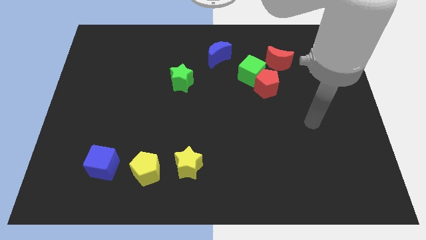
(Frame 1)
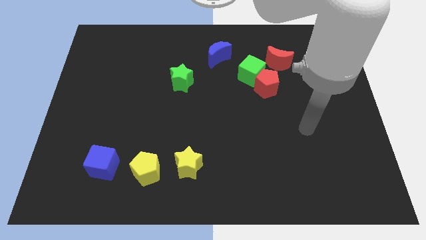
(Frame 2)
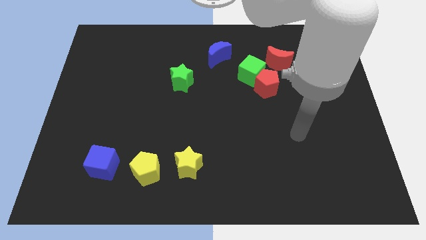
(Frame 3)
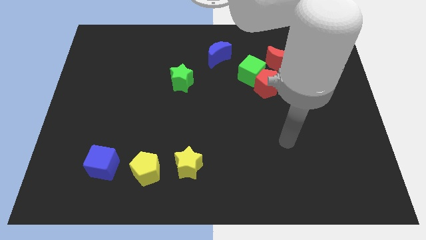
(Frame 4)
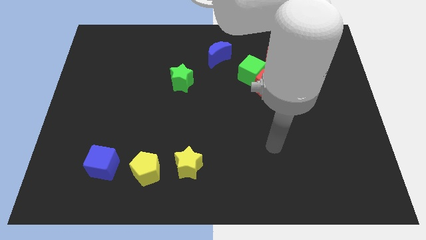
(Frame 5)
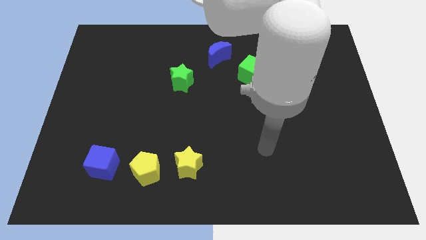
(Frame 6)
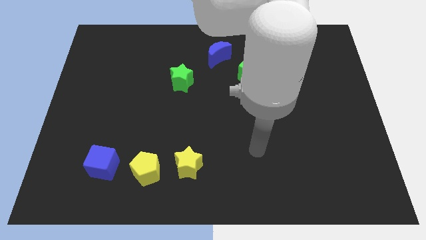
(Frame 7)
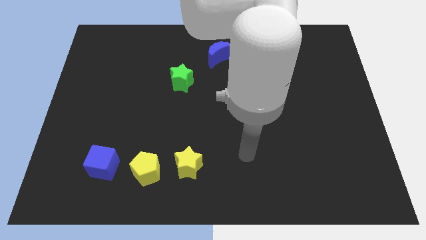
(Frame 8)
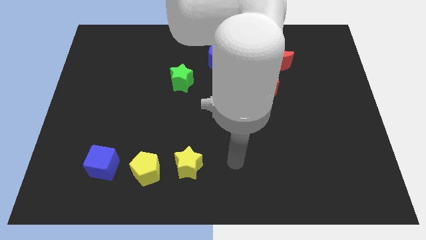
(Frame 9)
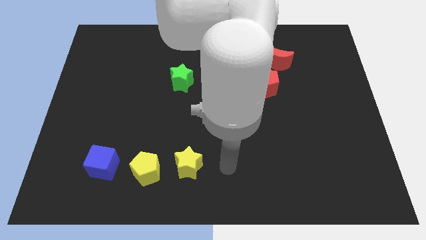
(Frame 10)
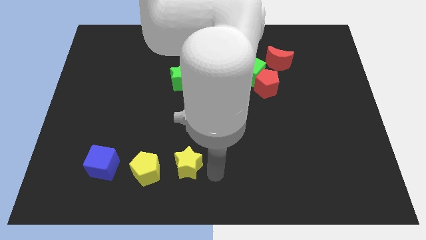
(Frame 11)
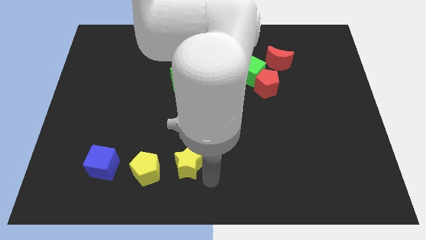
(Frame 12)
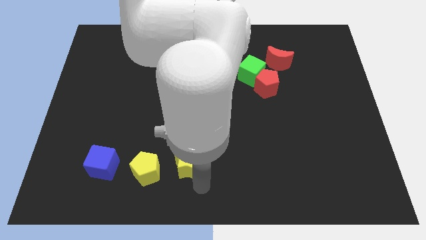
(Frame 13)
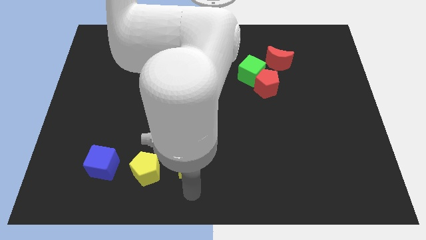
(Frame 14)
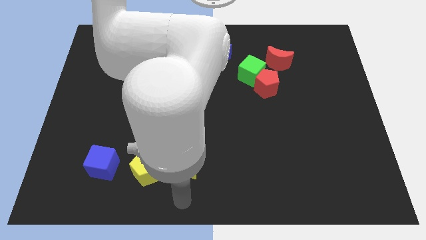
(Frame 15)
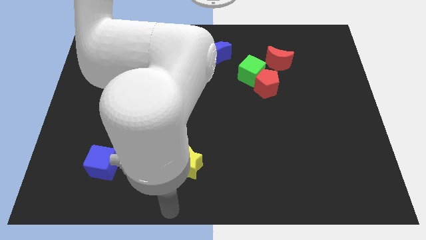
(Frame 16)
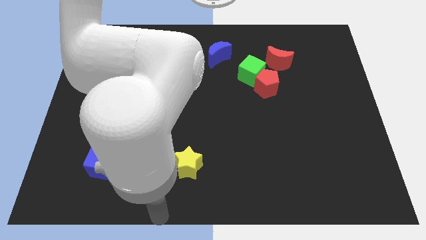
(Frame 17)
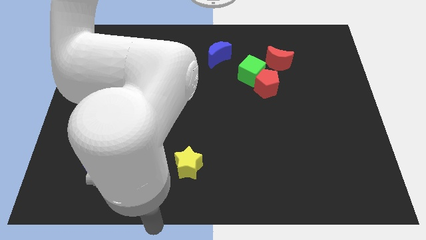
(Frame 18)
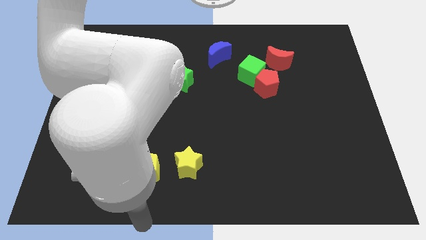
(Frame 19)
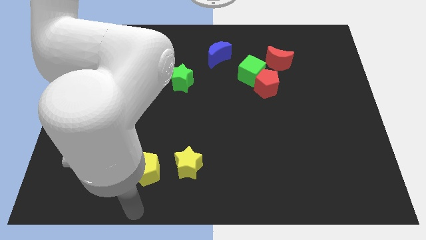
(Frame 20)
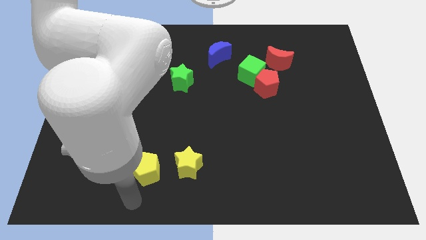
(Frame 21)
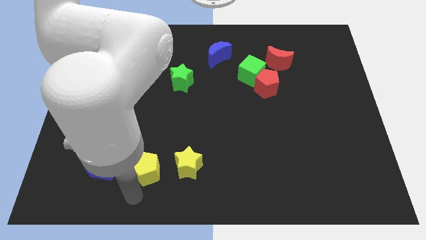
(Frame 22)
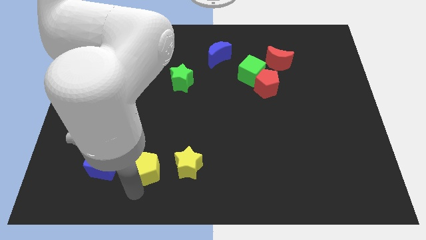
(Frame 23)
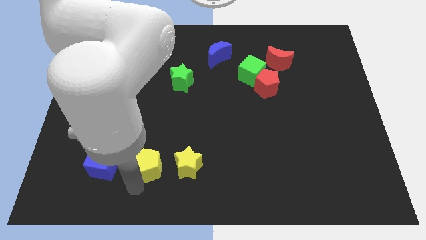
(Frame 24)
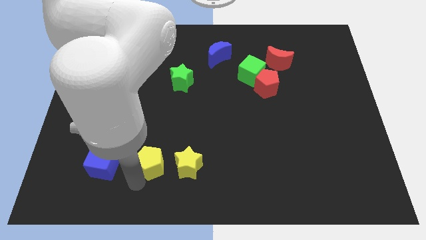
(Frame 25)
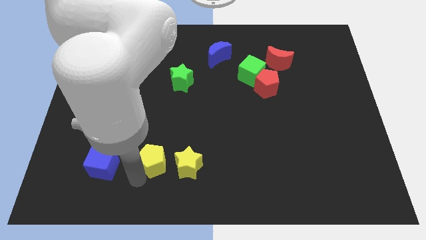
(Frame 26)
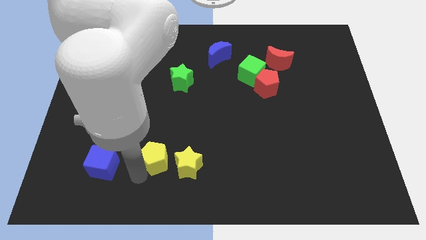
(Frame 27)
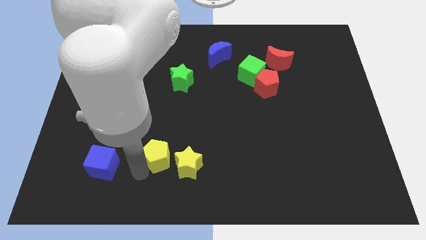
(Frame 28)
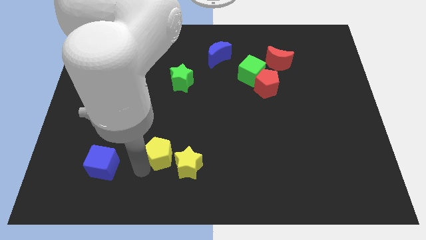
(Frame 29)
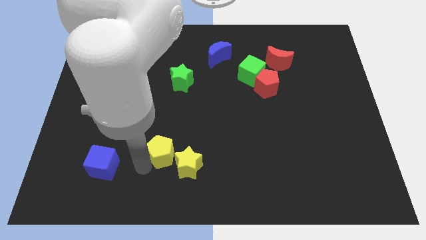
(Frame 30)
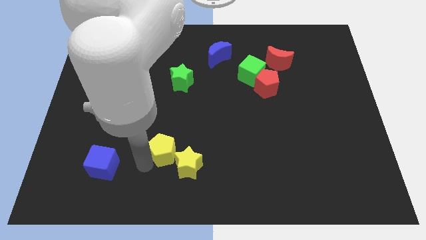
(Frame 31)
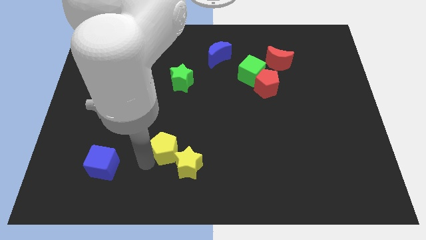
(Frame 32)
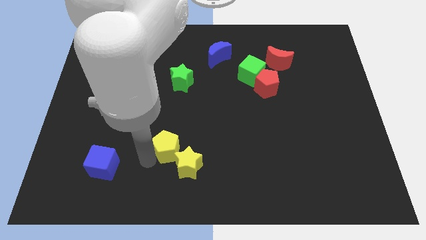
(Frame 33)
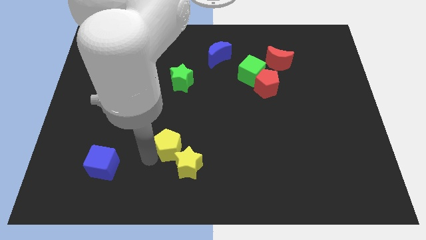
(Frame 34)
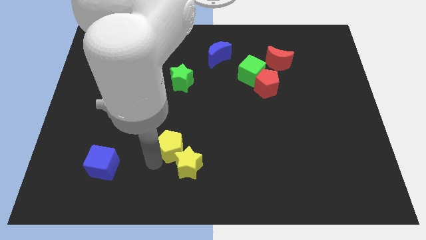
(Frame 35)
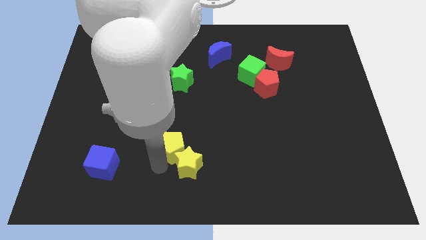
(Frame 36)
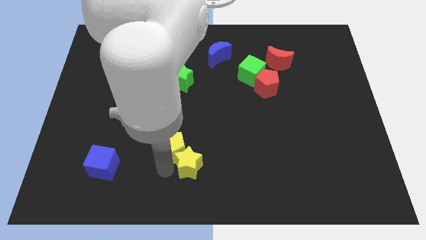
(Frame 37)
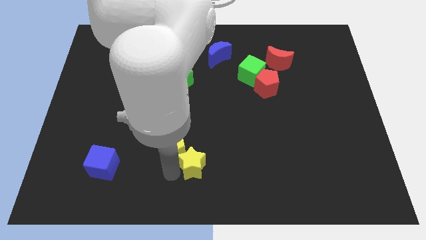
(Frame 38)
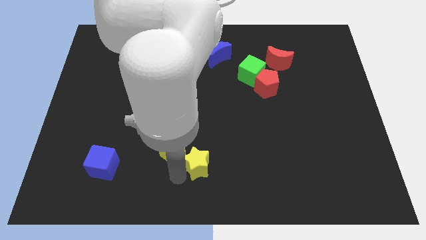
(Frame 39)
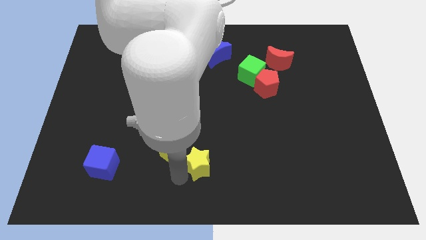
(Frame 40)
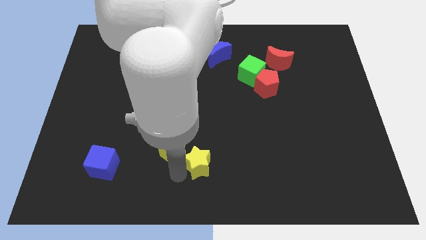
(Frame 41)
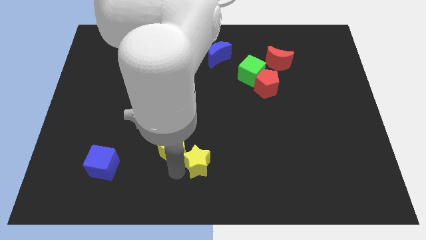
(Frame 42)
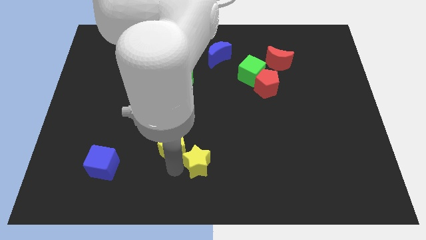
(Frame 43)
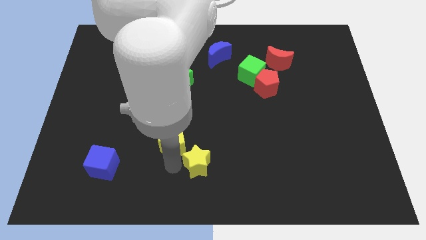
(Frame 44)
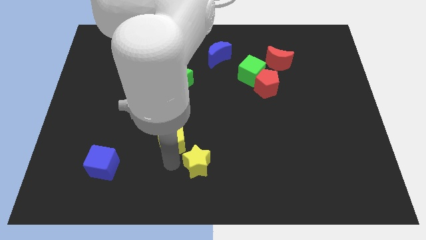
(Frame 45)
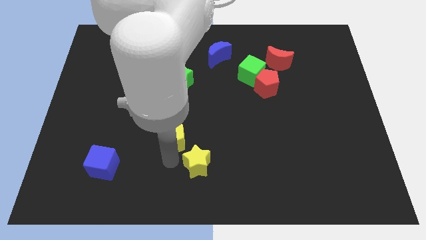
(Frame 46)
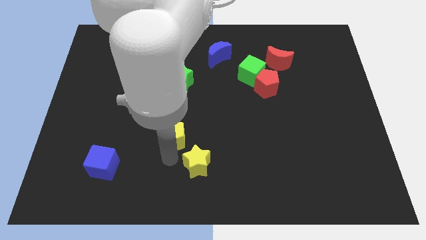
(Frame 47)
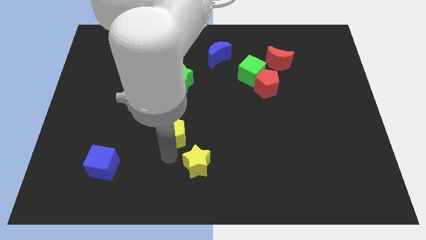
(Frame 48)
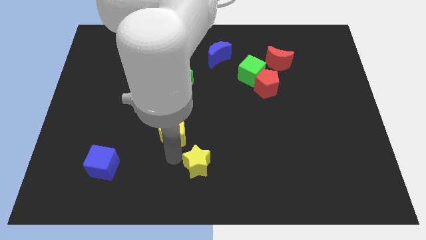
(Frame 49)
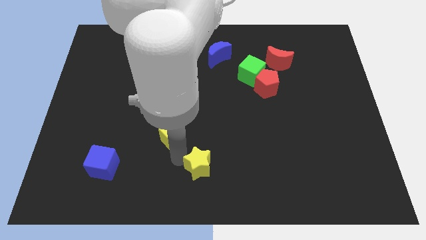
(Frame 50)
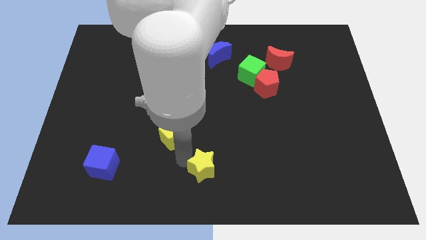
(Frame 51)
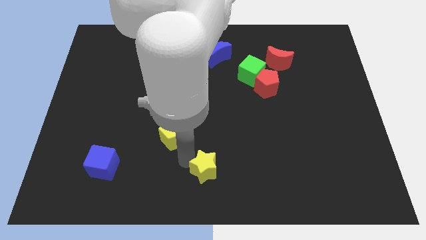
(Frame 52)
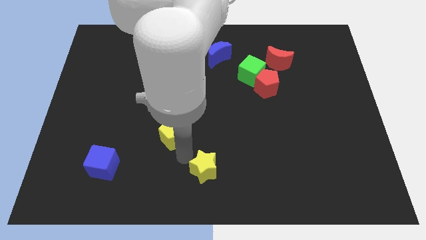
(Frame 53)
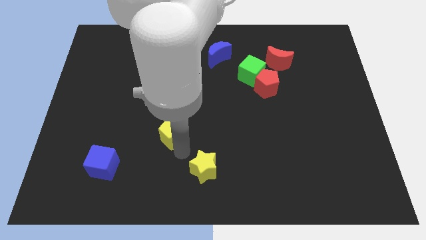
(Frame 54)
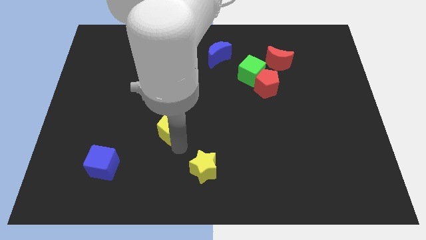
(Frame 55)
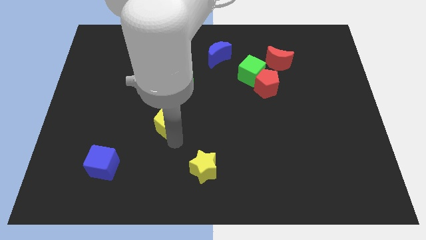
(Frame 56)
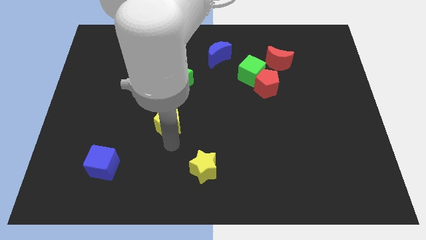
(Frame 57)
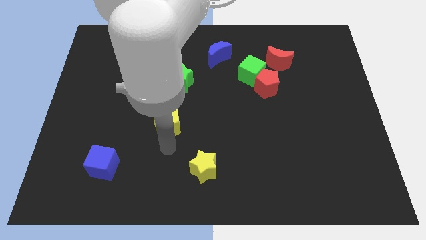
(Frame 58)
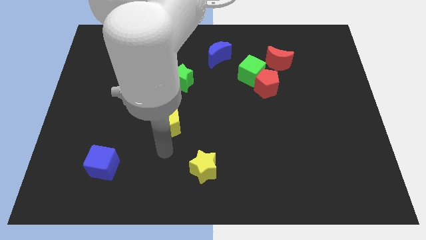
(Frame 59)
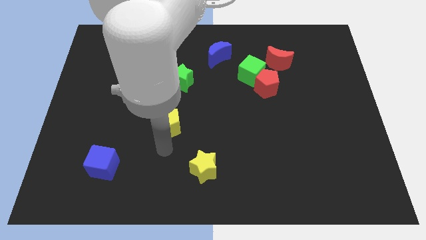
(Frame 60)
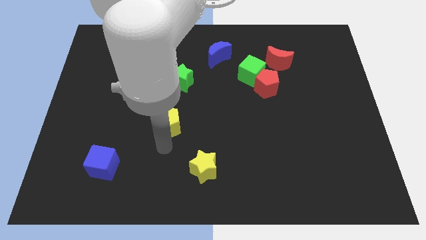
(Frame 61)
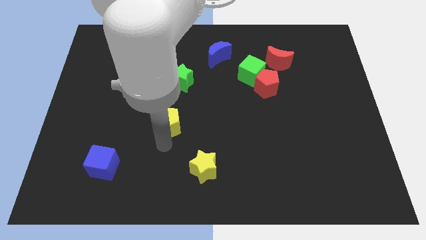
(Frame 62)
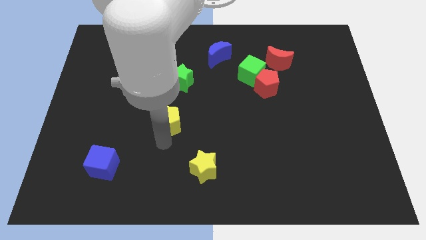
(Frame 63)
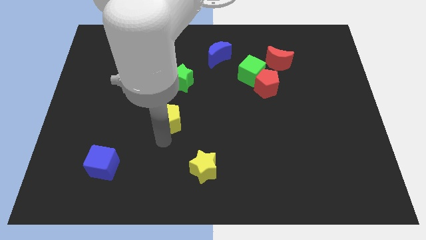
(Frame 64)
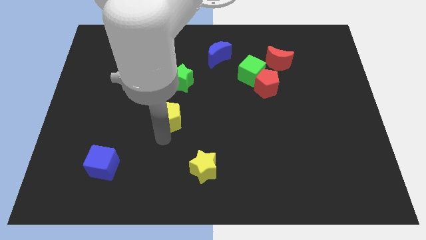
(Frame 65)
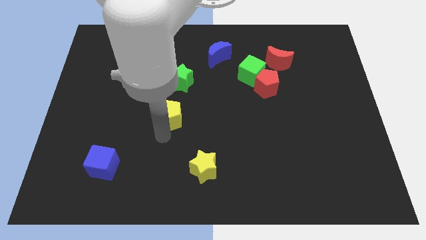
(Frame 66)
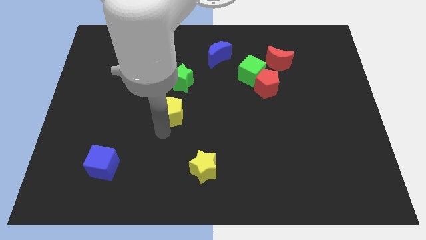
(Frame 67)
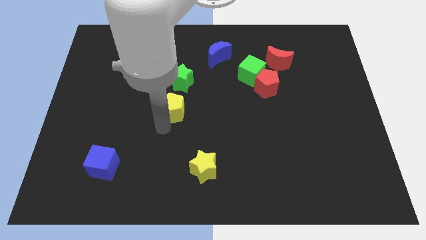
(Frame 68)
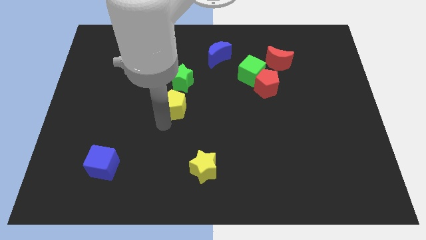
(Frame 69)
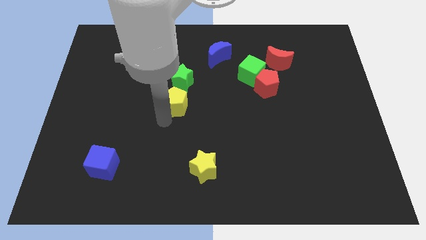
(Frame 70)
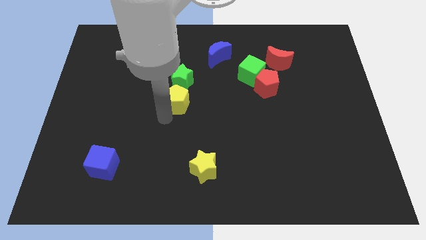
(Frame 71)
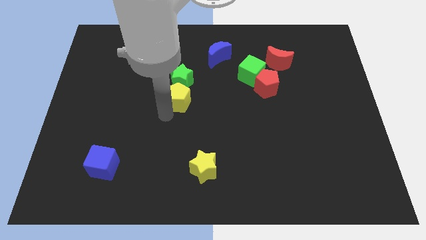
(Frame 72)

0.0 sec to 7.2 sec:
put the yellow pentagon to the green star

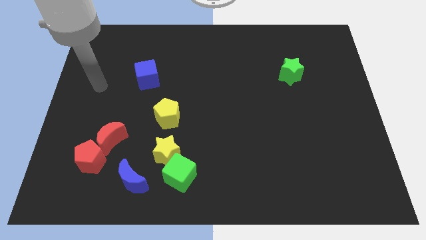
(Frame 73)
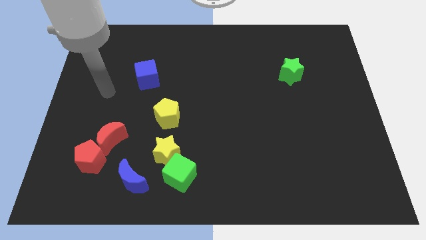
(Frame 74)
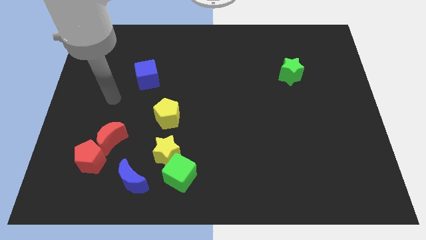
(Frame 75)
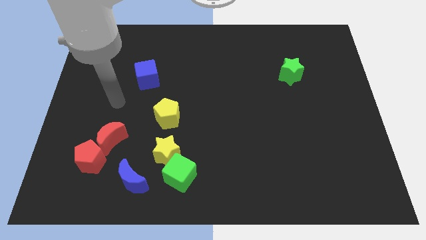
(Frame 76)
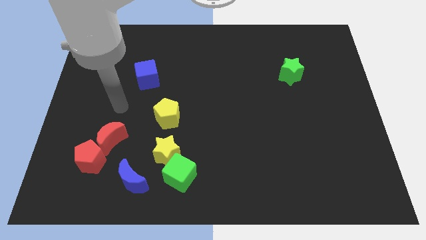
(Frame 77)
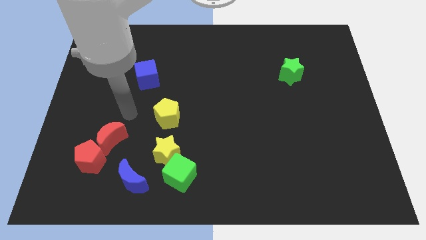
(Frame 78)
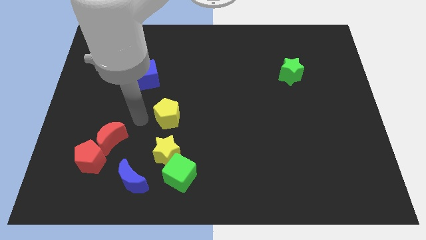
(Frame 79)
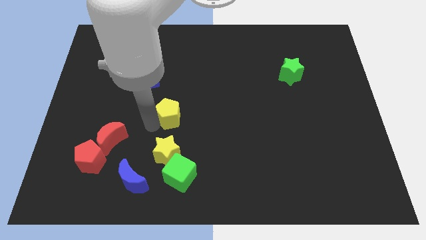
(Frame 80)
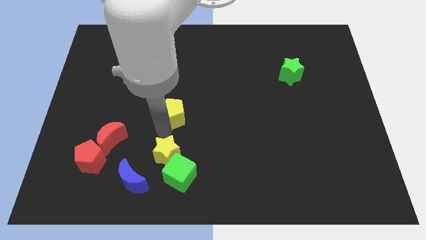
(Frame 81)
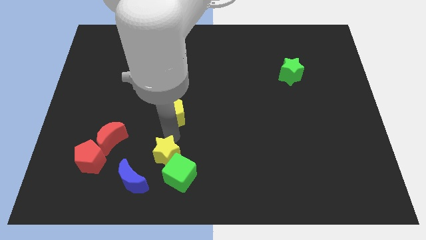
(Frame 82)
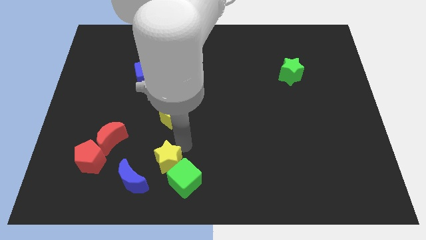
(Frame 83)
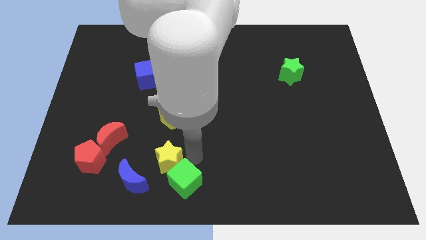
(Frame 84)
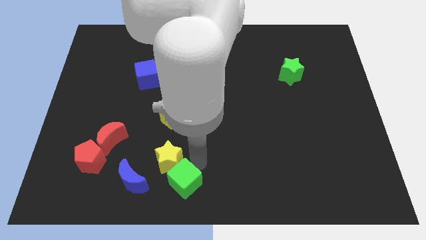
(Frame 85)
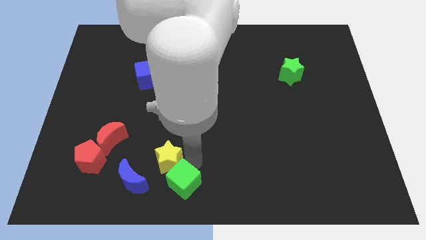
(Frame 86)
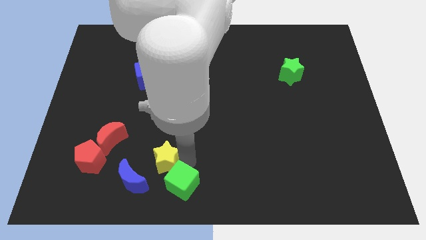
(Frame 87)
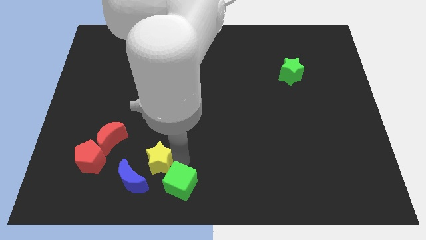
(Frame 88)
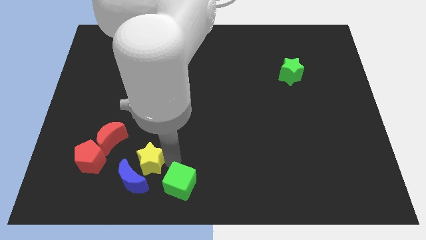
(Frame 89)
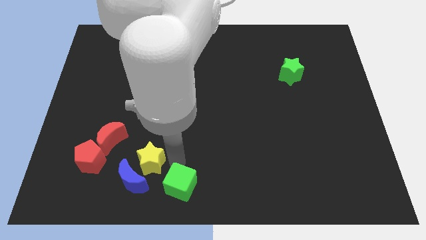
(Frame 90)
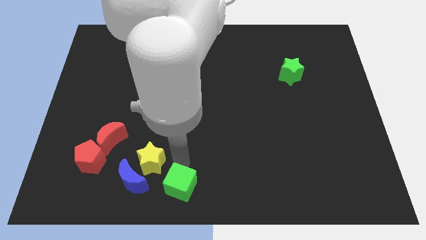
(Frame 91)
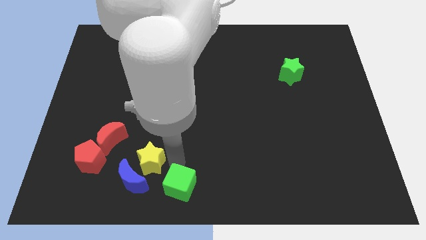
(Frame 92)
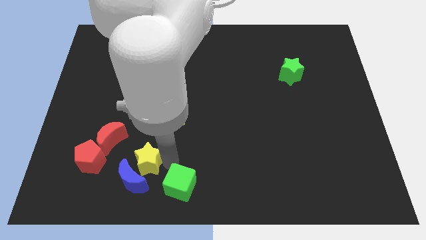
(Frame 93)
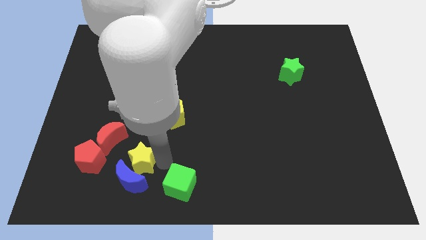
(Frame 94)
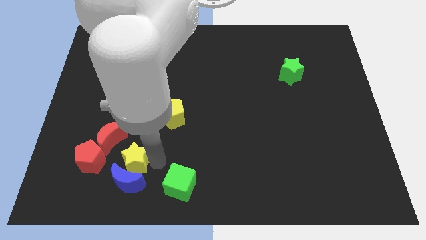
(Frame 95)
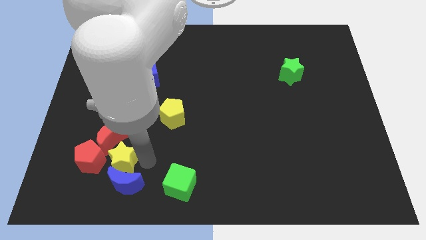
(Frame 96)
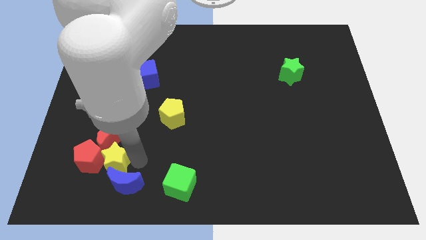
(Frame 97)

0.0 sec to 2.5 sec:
push the yellow star next to the red pentagon
